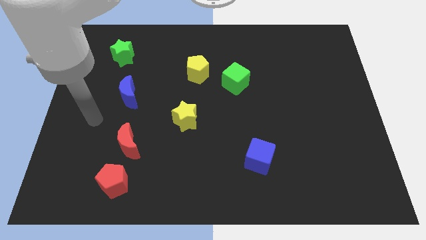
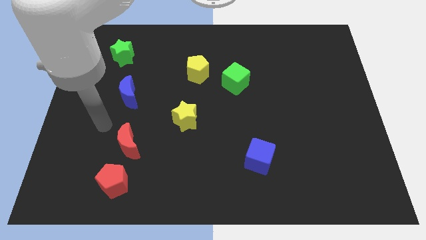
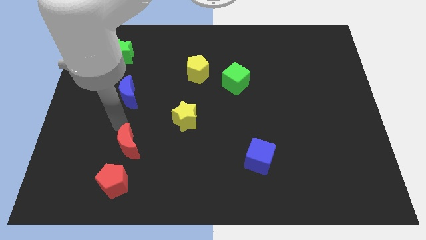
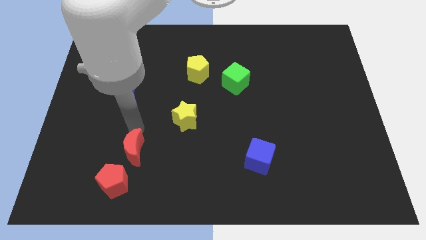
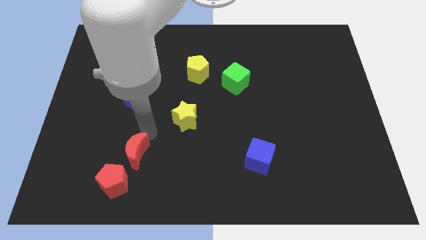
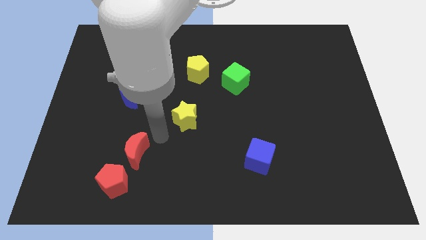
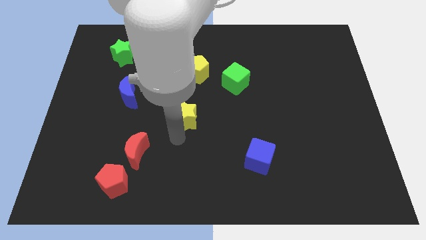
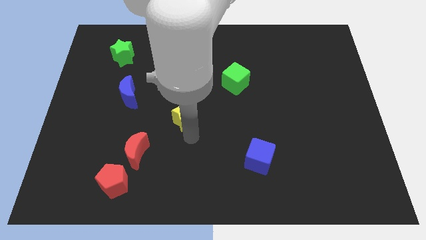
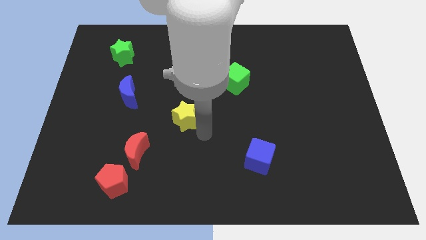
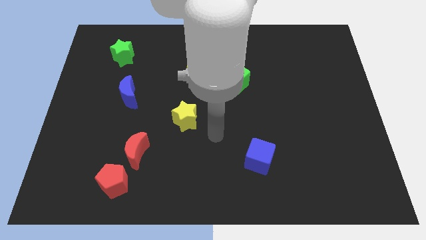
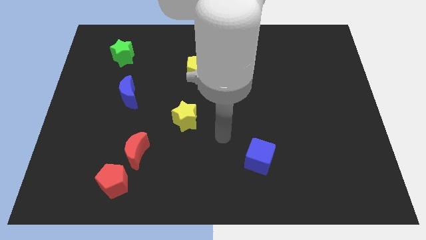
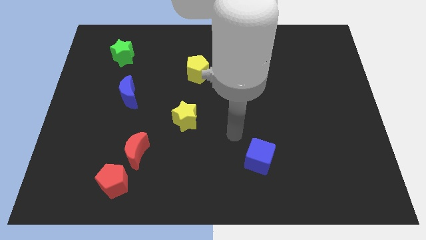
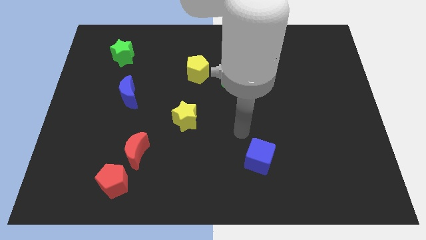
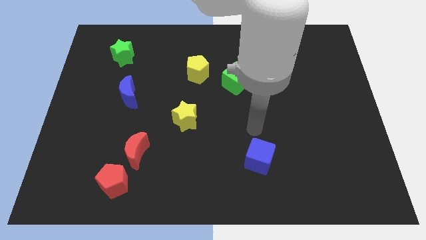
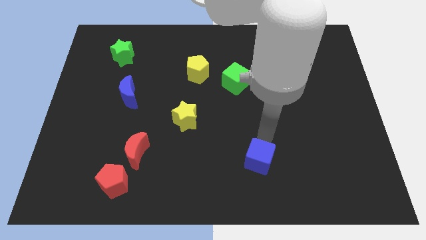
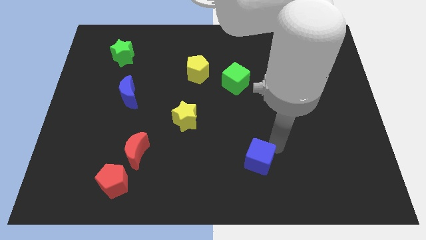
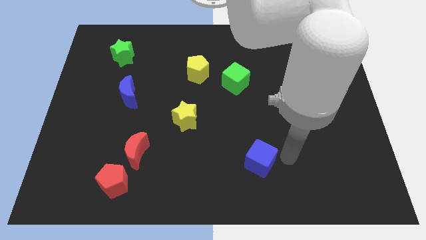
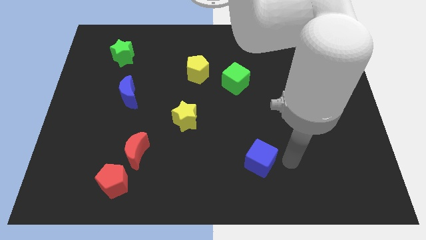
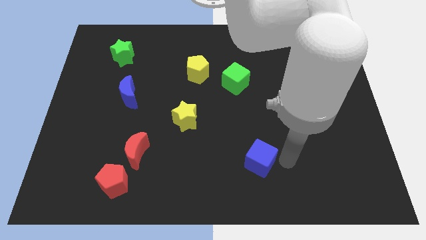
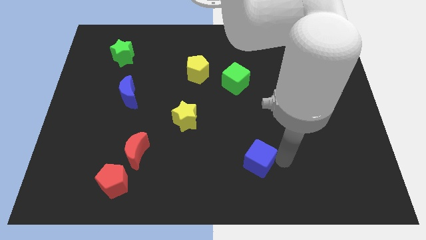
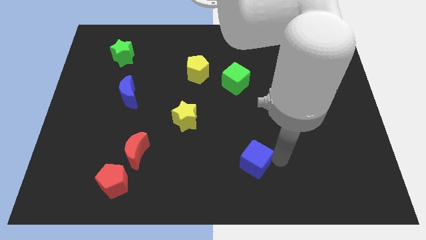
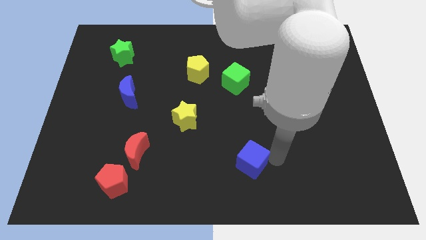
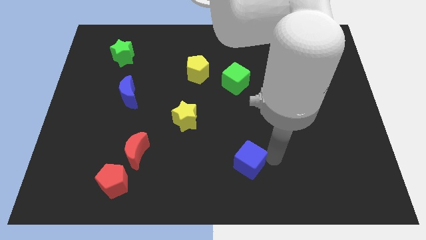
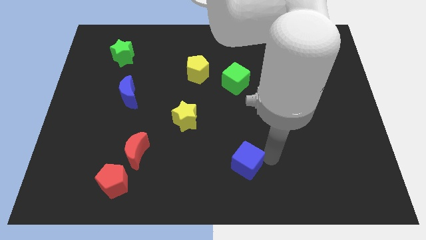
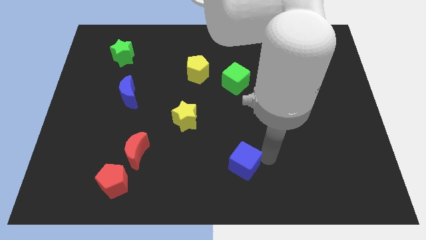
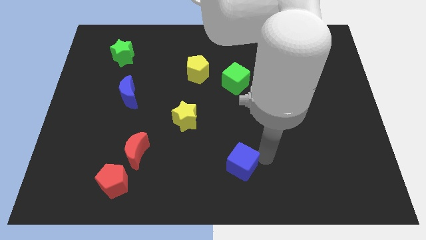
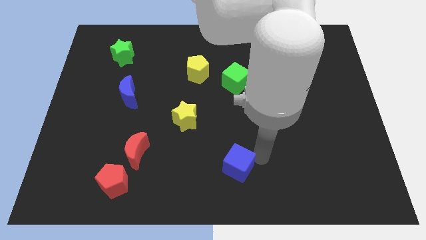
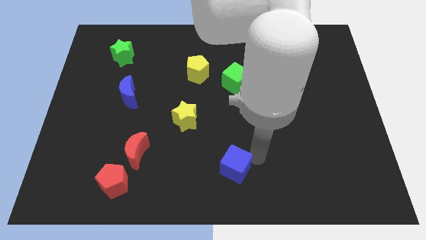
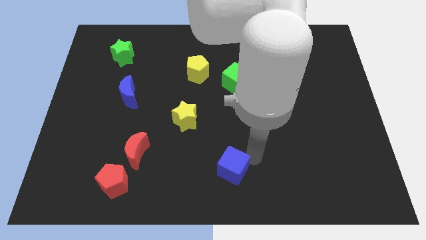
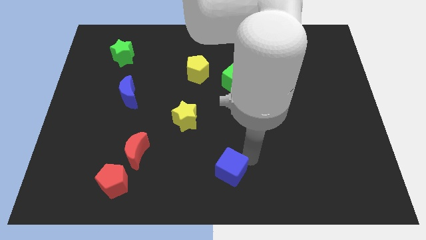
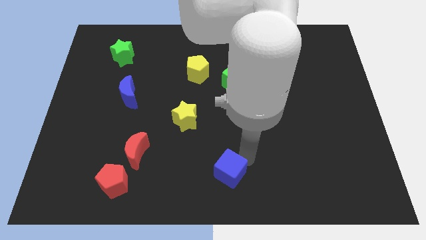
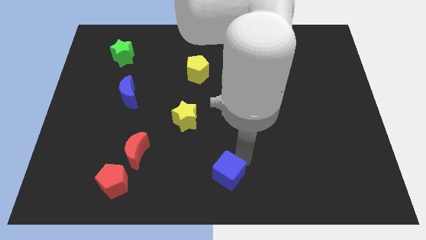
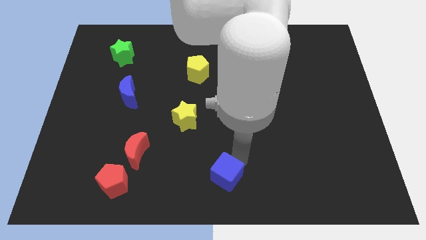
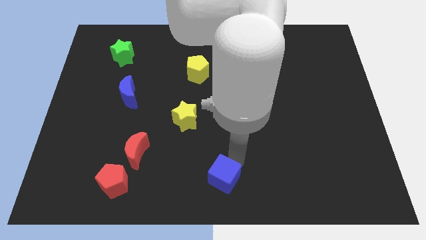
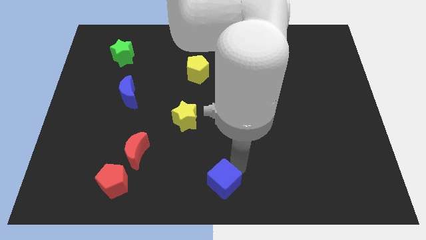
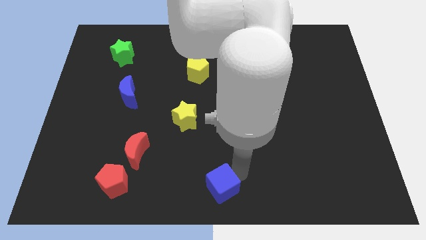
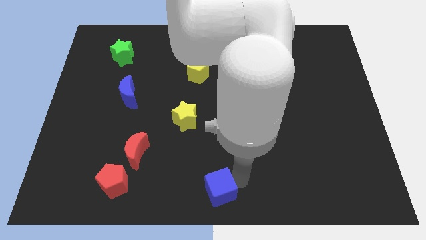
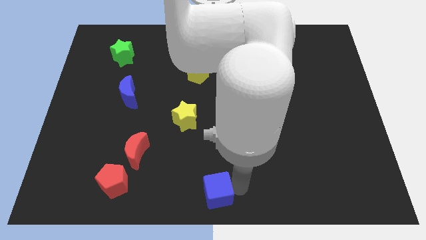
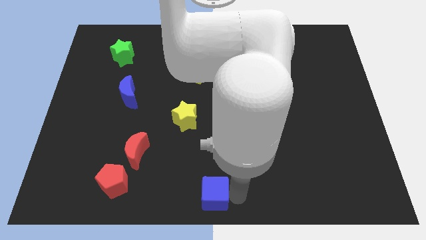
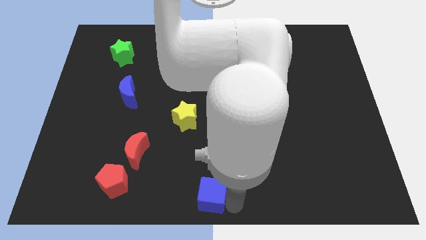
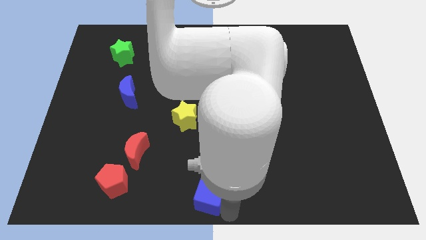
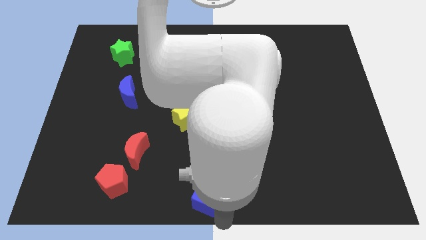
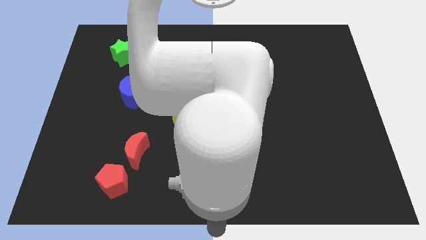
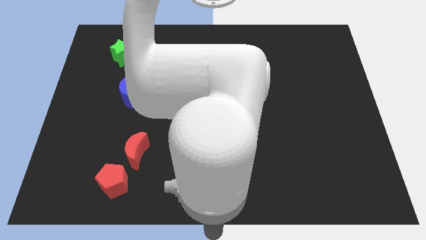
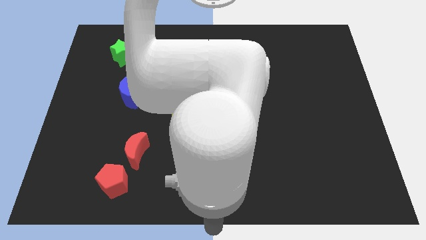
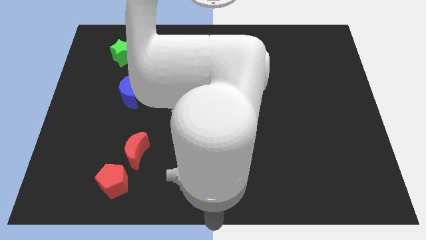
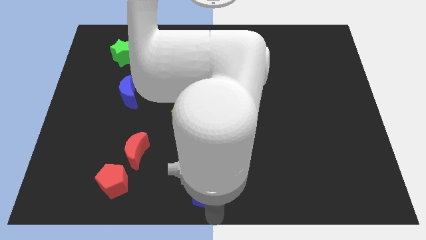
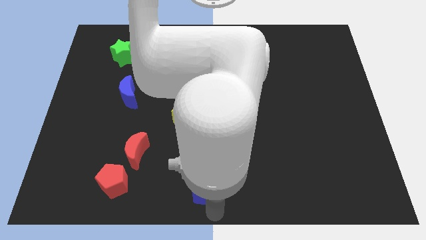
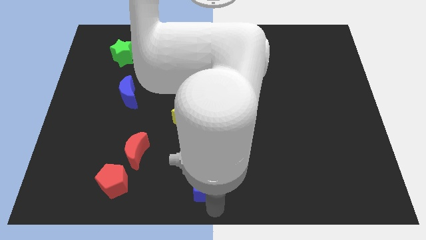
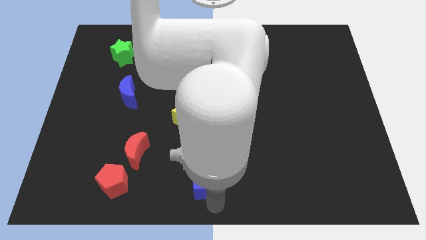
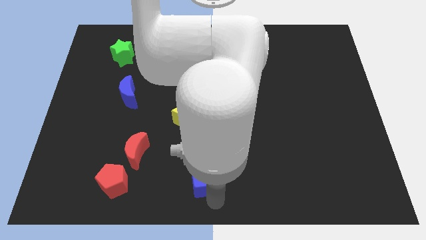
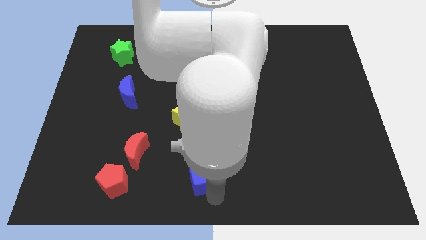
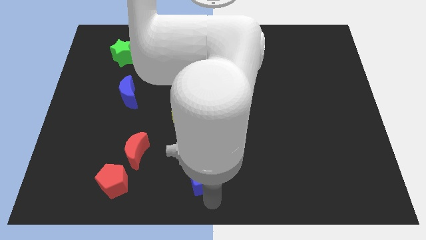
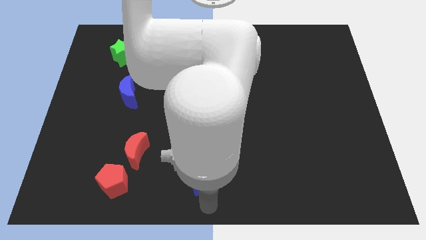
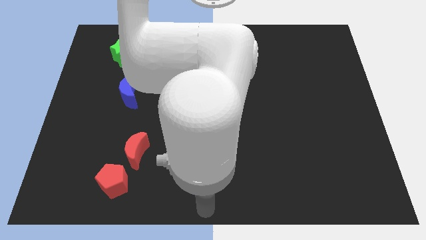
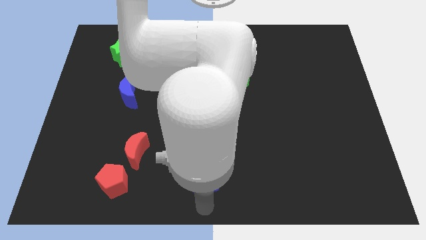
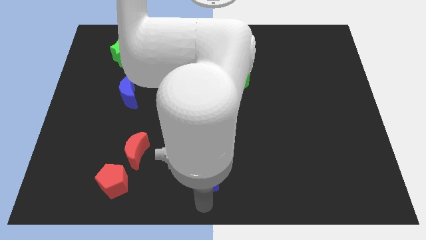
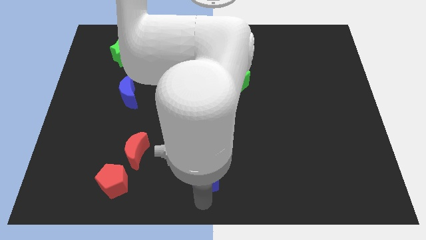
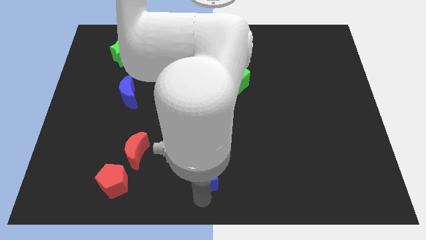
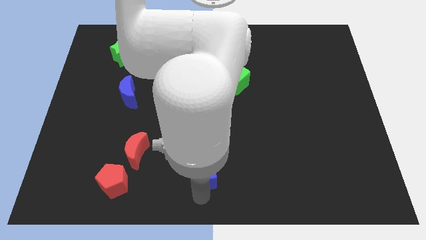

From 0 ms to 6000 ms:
push the blue cube to the bottom side of the yellow star

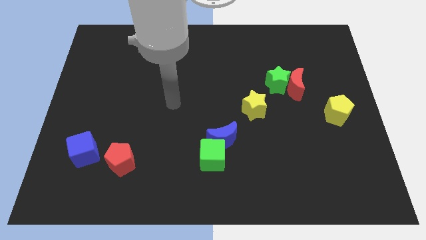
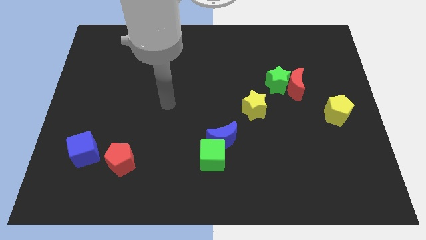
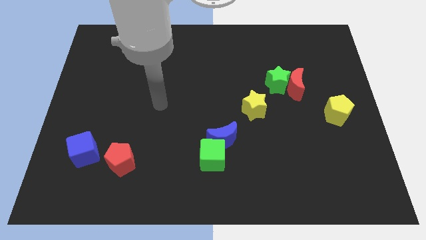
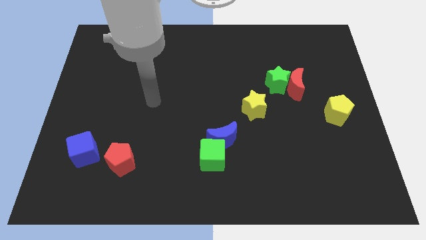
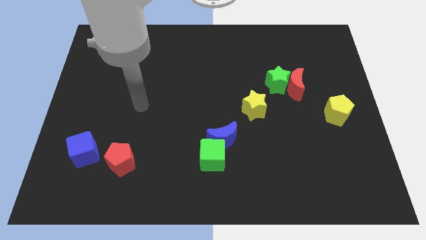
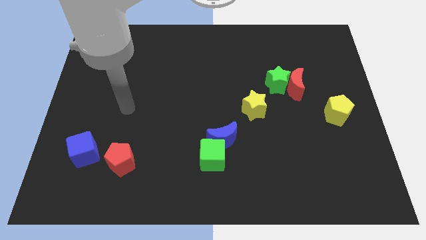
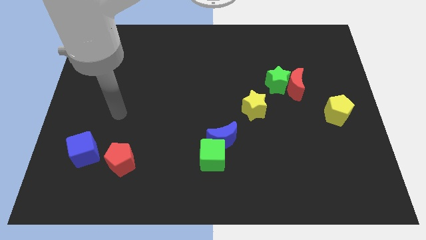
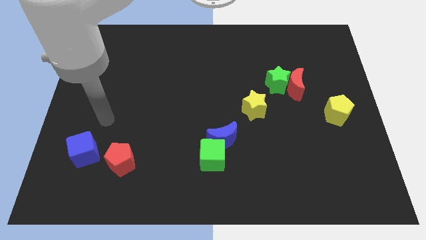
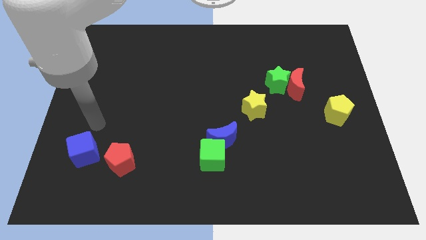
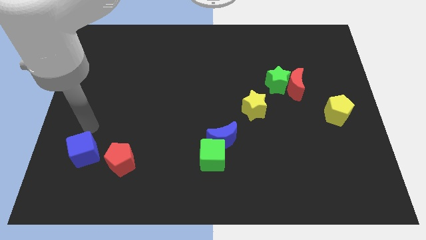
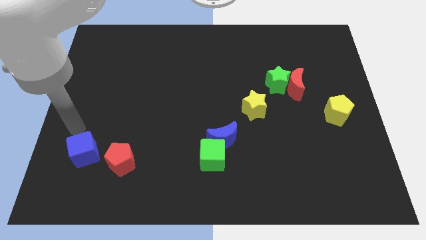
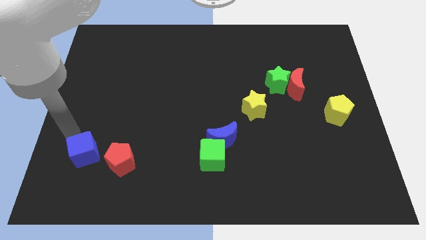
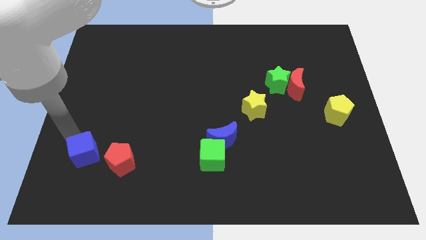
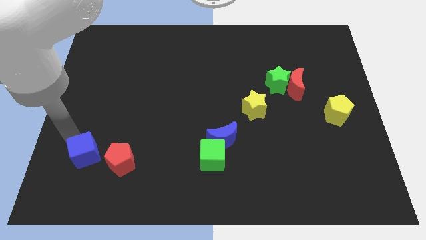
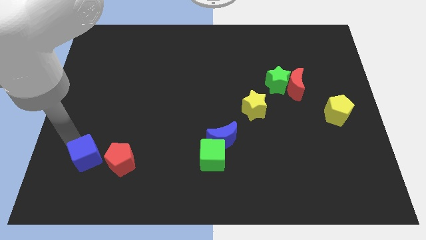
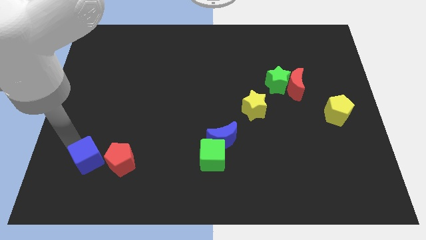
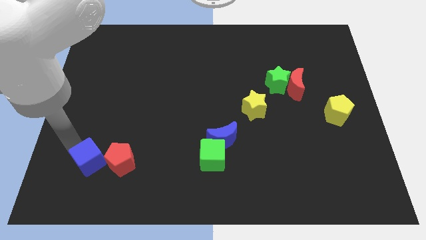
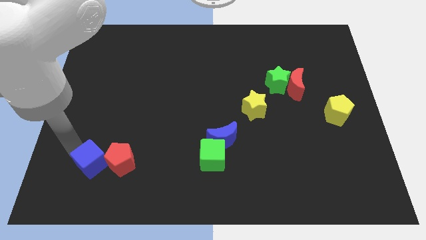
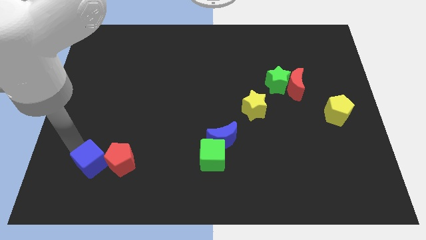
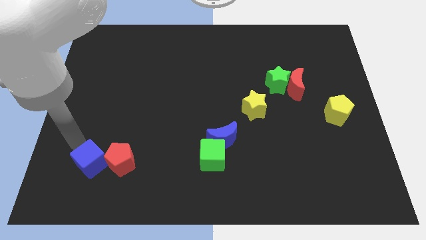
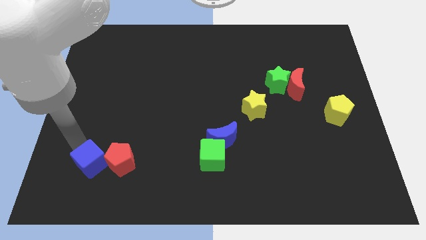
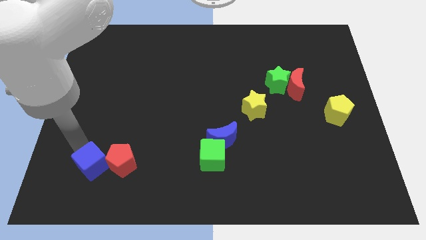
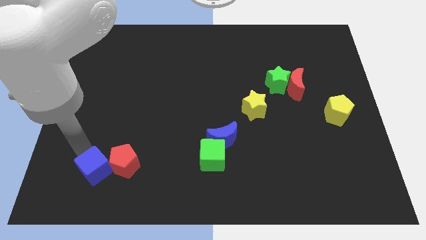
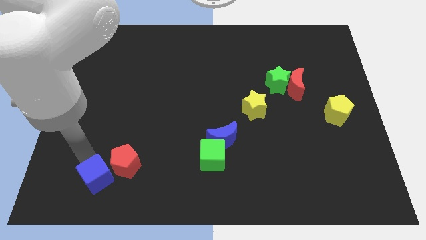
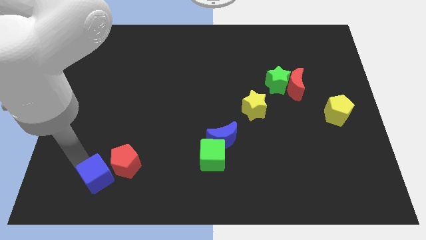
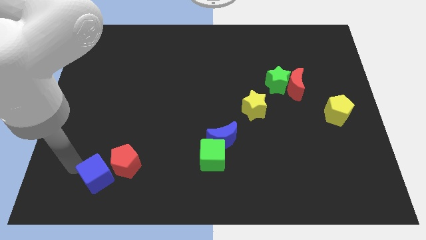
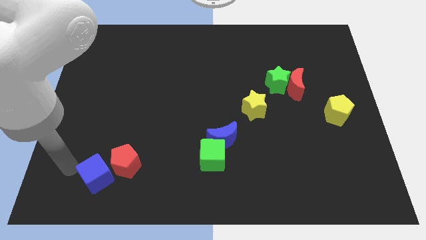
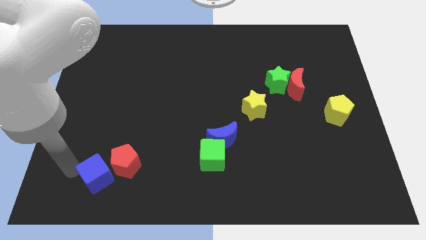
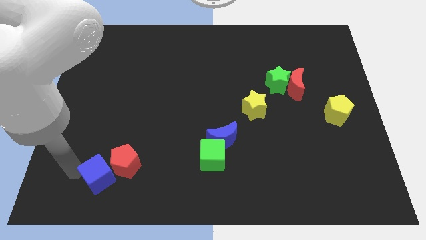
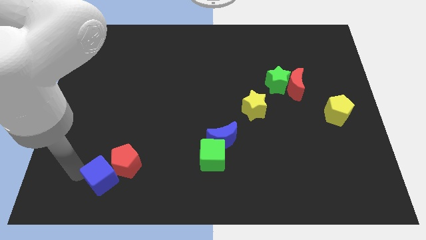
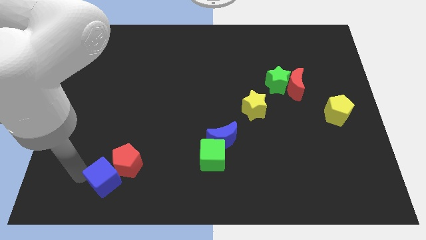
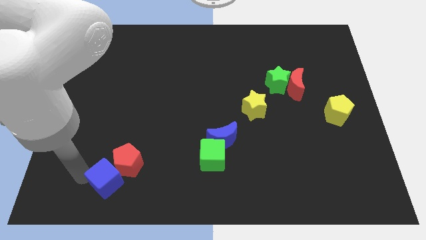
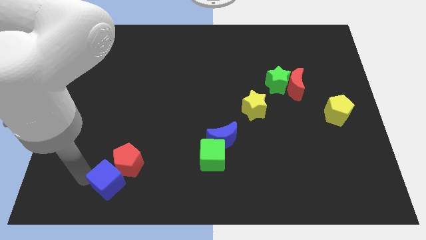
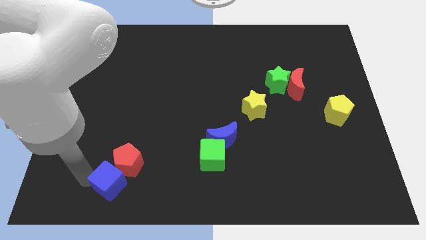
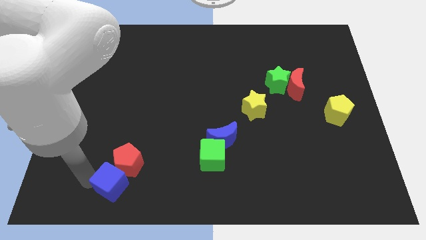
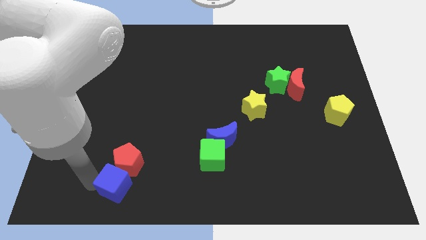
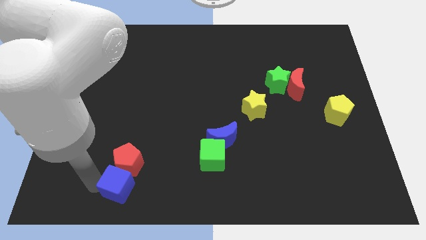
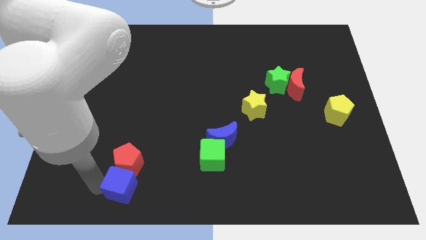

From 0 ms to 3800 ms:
slide the blue cube to the bottom right of the red pentagon
